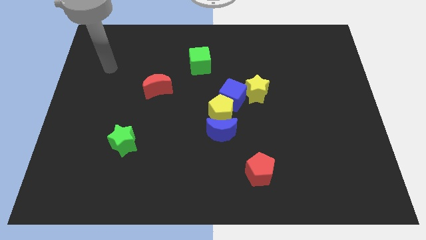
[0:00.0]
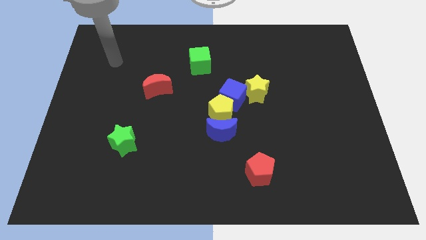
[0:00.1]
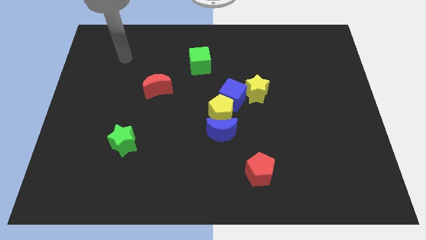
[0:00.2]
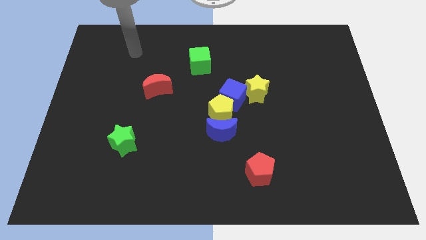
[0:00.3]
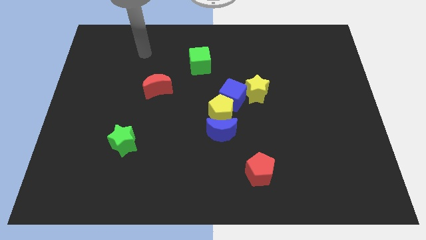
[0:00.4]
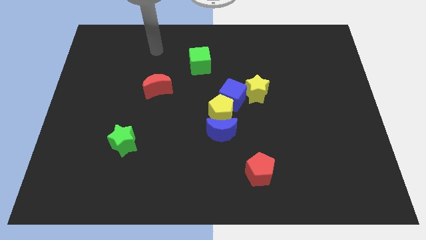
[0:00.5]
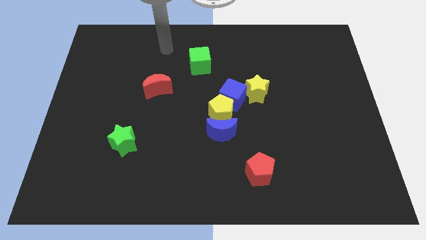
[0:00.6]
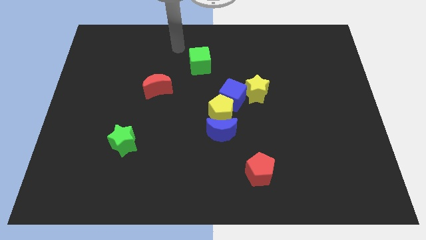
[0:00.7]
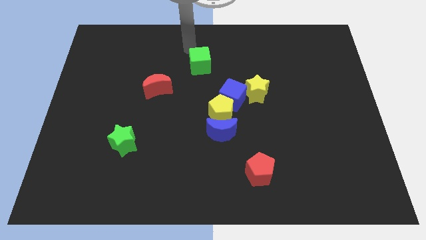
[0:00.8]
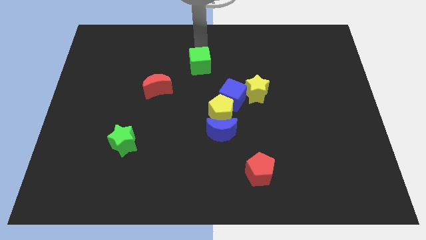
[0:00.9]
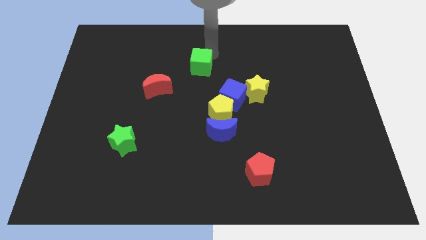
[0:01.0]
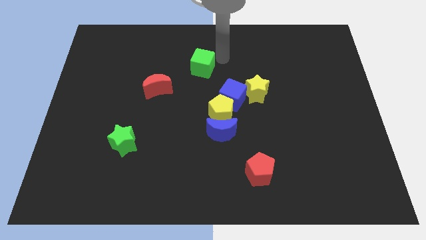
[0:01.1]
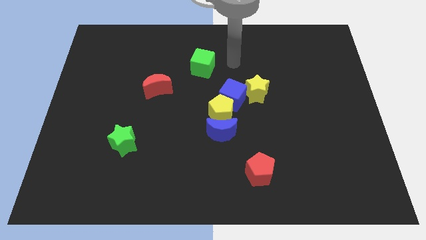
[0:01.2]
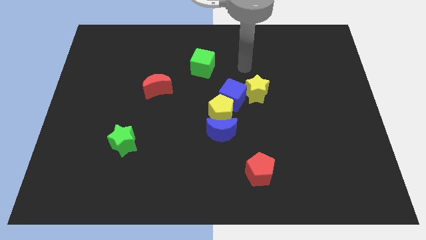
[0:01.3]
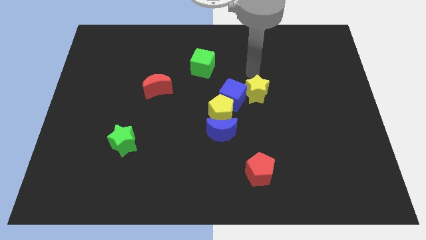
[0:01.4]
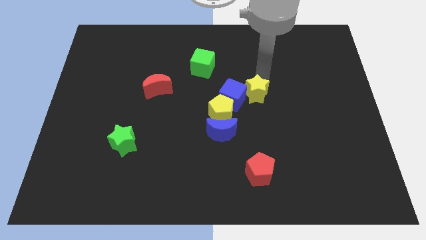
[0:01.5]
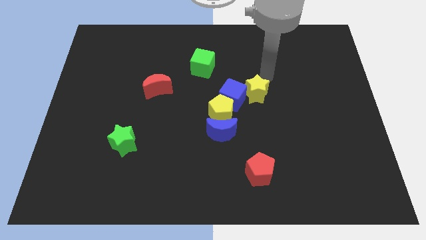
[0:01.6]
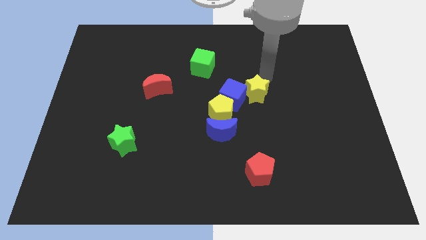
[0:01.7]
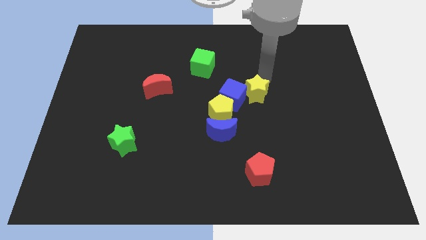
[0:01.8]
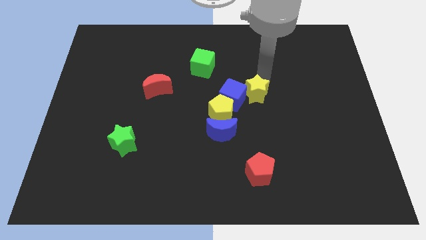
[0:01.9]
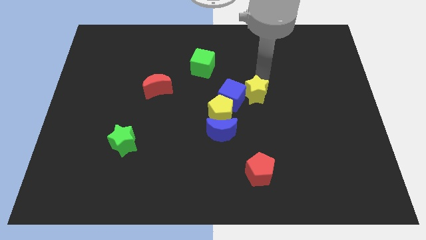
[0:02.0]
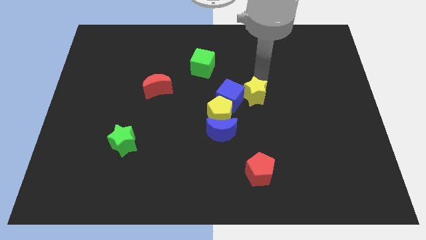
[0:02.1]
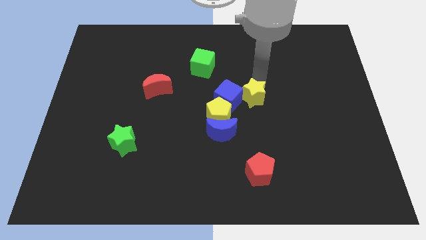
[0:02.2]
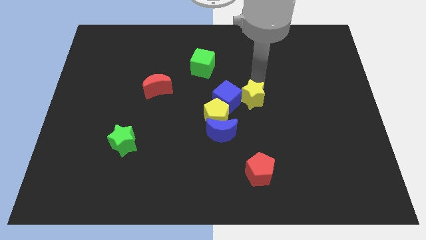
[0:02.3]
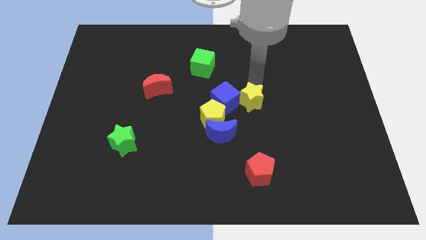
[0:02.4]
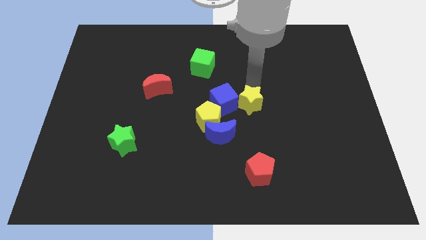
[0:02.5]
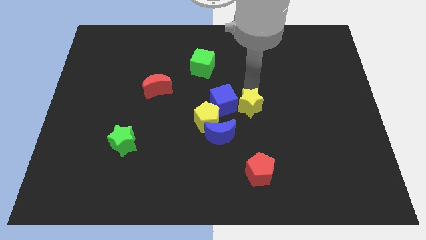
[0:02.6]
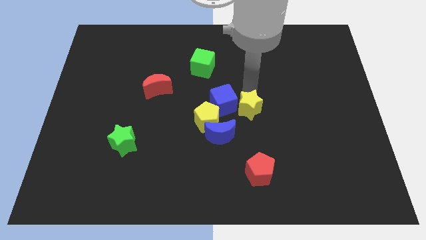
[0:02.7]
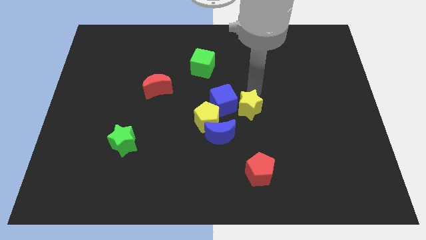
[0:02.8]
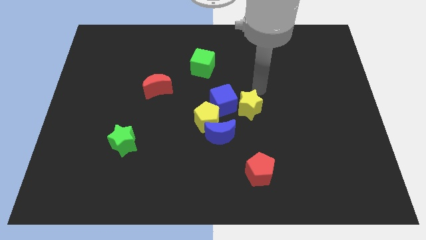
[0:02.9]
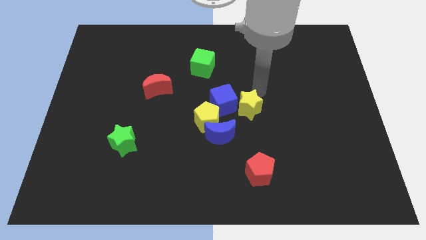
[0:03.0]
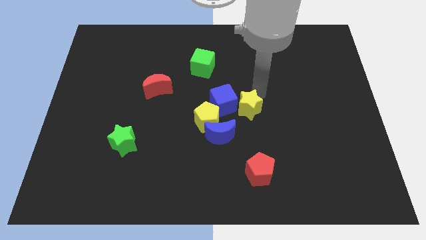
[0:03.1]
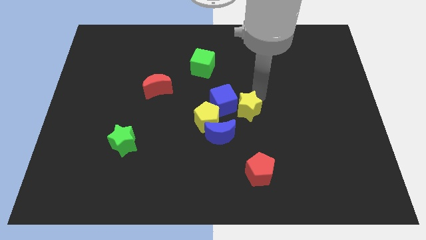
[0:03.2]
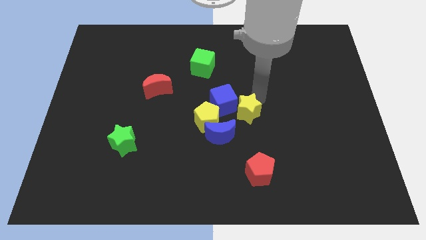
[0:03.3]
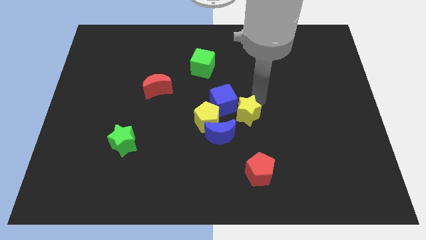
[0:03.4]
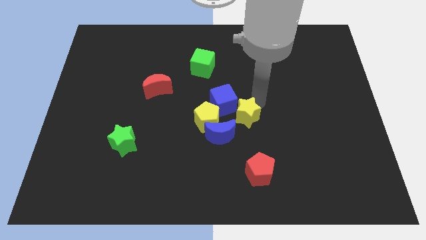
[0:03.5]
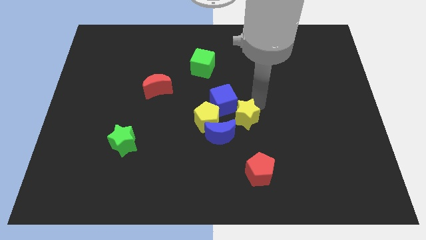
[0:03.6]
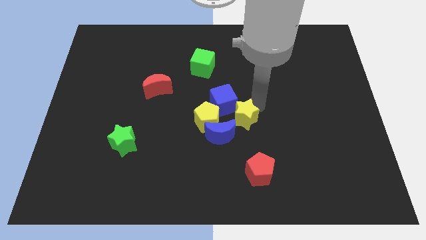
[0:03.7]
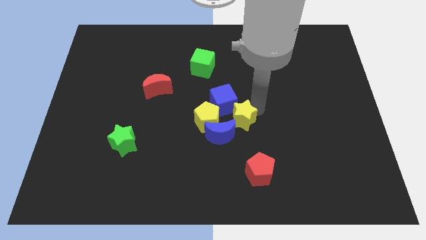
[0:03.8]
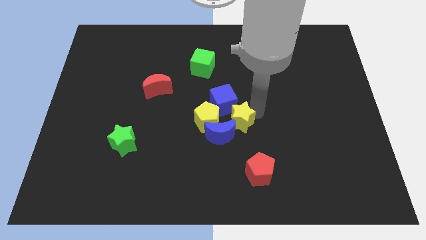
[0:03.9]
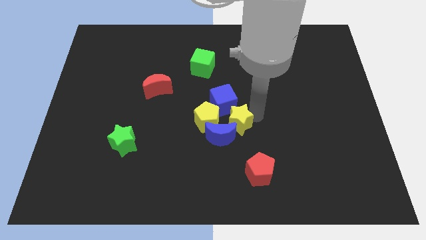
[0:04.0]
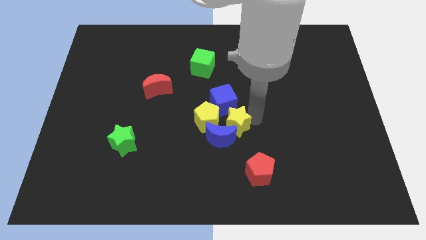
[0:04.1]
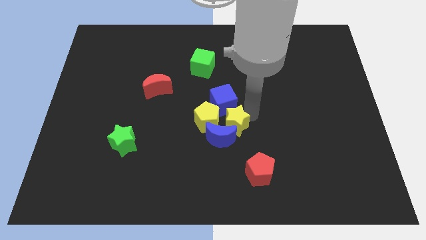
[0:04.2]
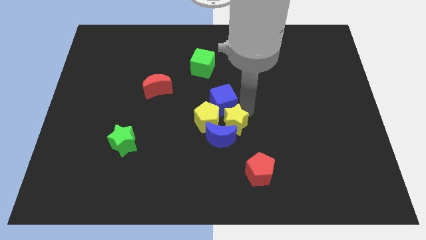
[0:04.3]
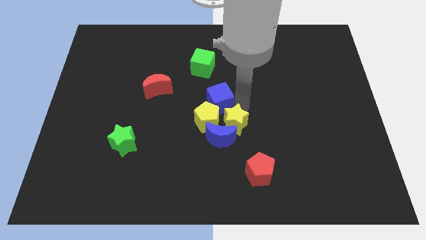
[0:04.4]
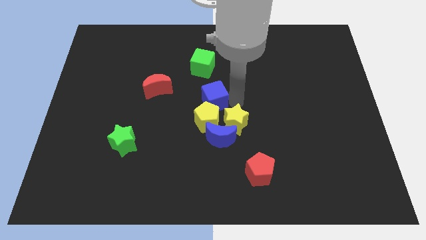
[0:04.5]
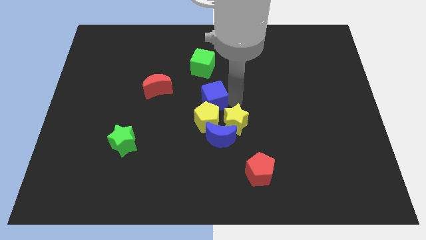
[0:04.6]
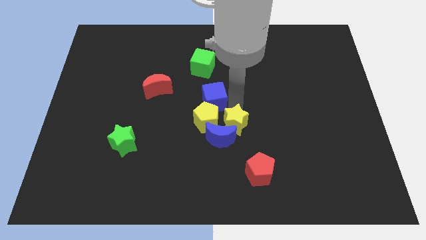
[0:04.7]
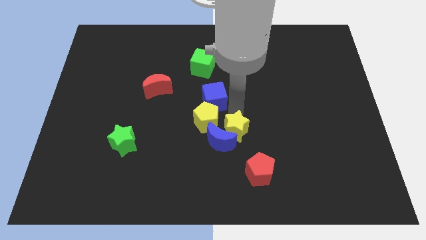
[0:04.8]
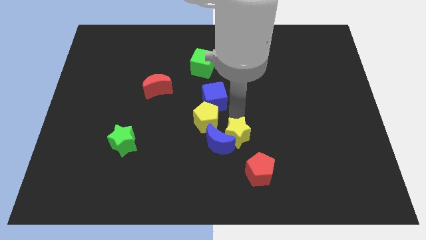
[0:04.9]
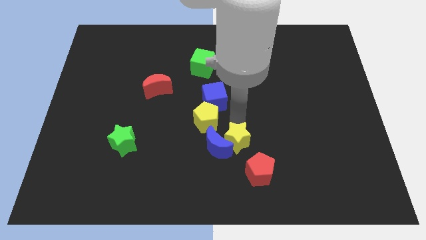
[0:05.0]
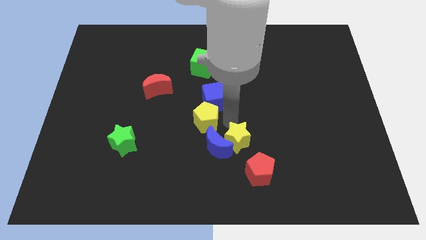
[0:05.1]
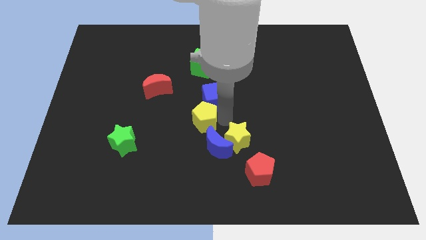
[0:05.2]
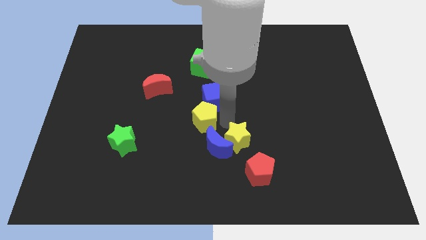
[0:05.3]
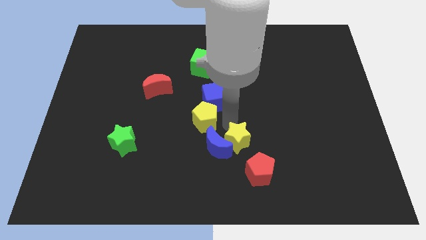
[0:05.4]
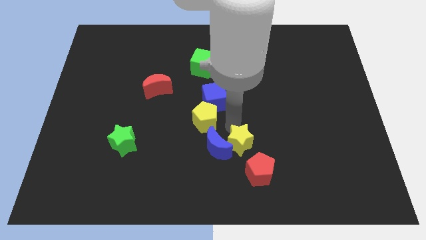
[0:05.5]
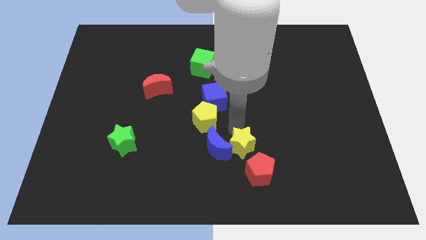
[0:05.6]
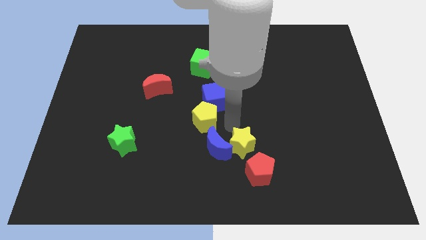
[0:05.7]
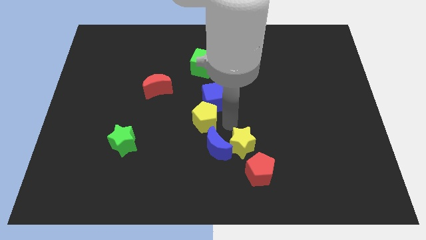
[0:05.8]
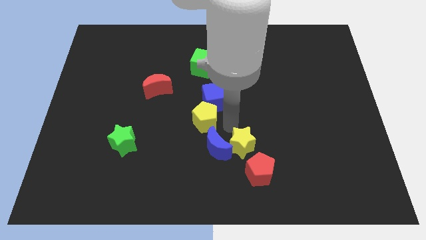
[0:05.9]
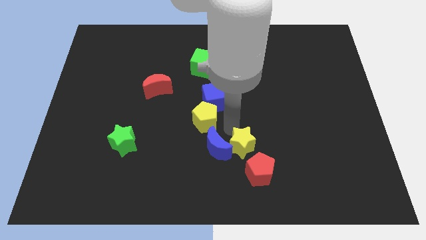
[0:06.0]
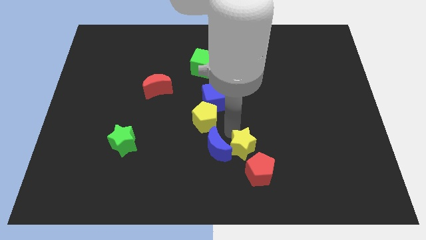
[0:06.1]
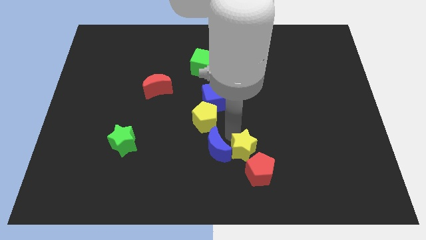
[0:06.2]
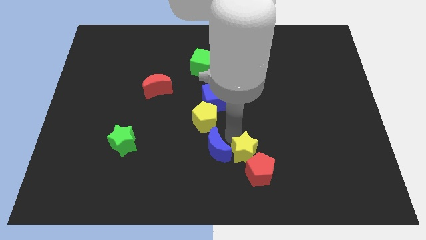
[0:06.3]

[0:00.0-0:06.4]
push the yellow star close to the red pentagon
